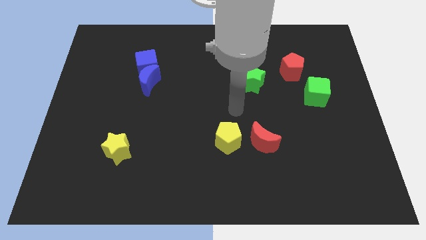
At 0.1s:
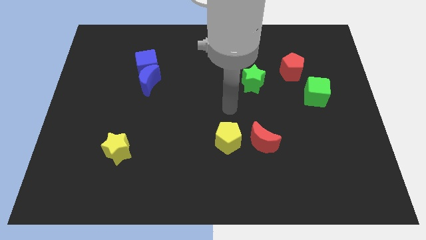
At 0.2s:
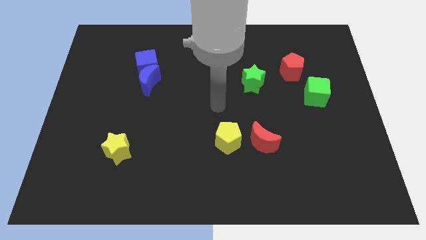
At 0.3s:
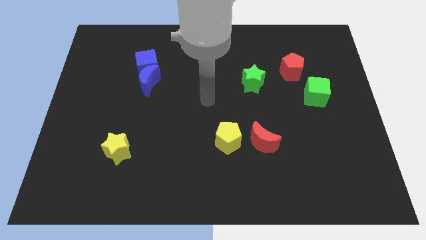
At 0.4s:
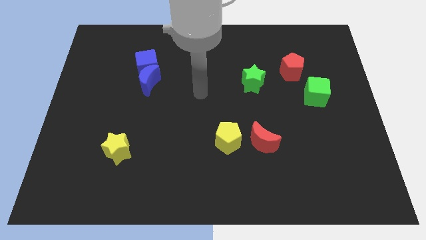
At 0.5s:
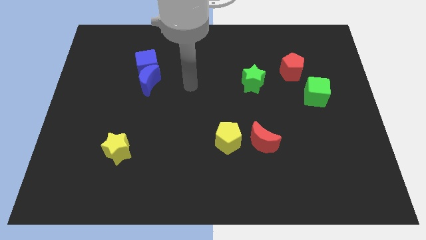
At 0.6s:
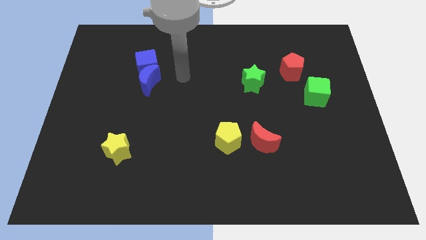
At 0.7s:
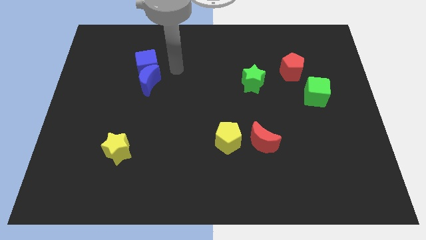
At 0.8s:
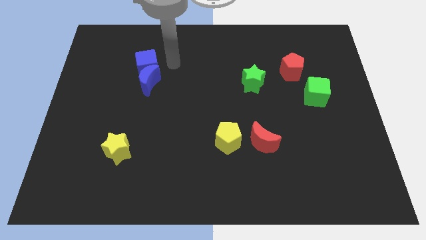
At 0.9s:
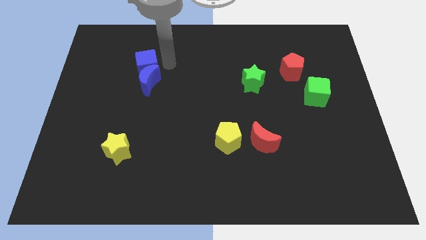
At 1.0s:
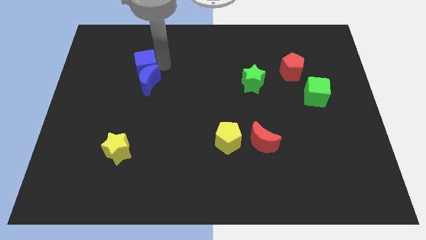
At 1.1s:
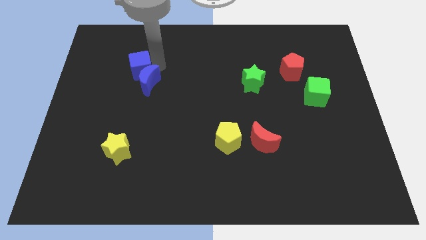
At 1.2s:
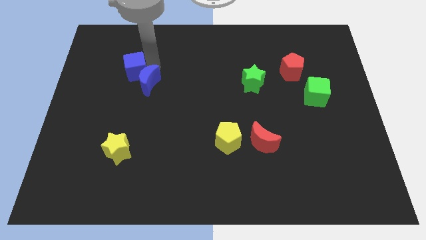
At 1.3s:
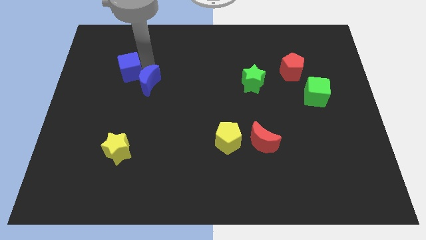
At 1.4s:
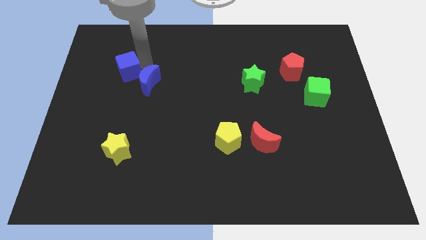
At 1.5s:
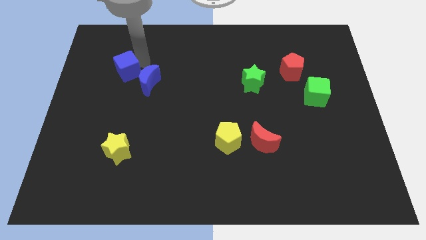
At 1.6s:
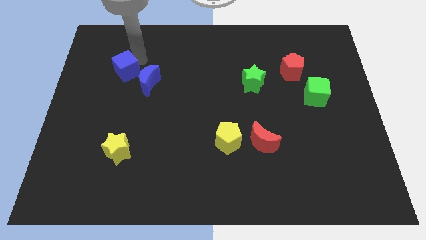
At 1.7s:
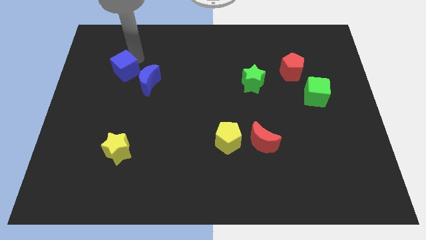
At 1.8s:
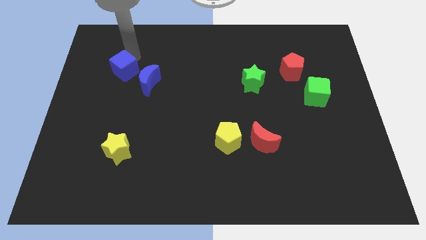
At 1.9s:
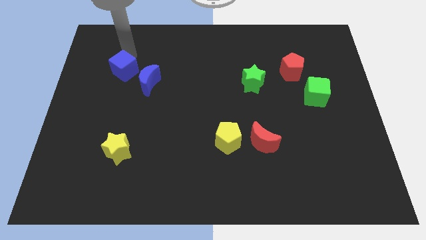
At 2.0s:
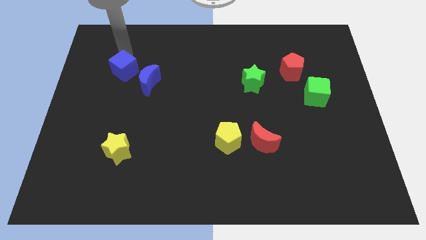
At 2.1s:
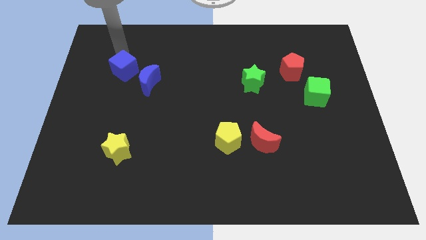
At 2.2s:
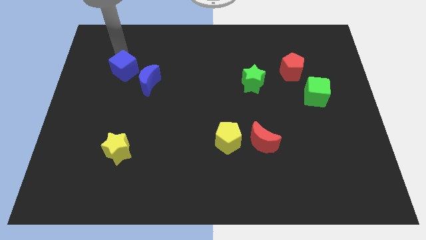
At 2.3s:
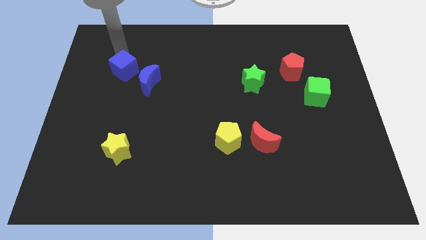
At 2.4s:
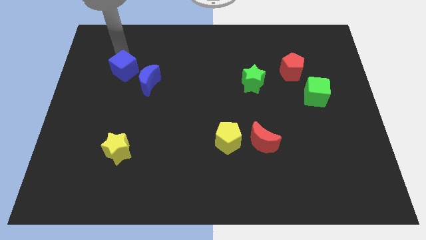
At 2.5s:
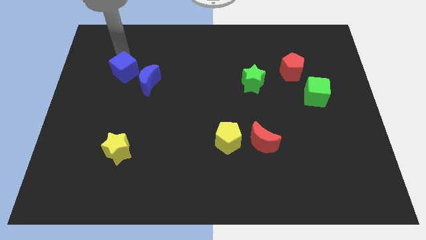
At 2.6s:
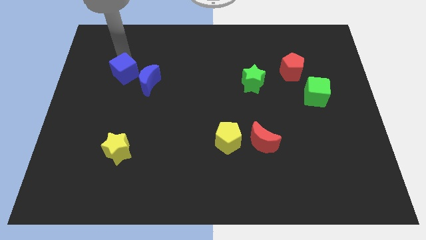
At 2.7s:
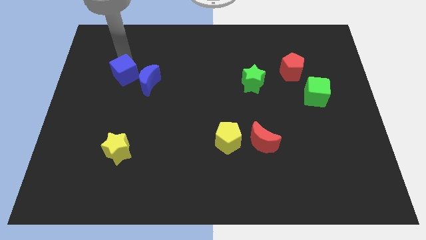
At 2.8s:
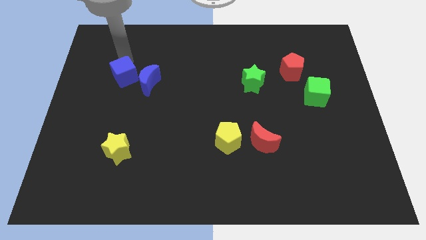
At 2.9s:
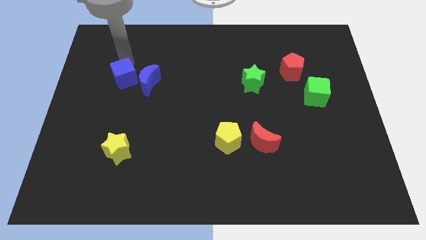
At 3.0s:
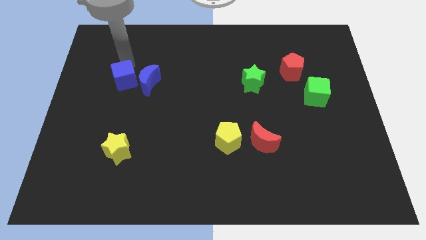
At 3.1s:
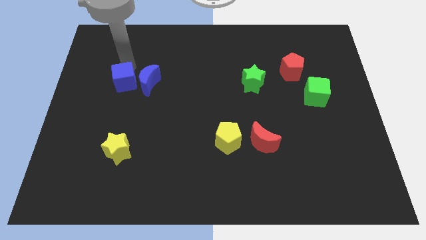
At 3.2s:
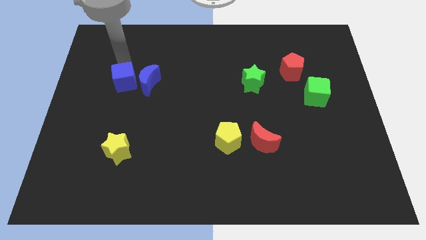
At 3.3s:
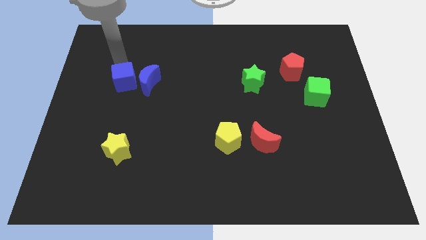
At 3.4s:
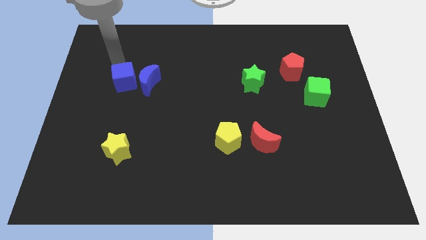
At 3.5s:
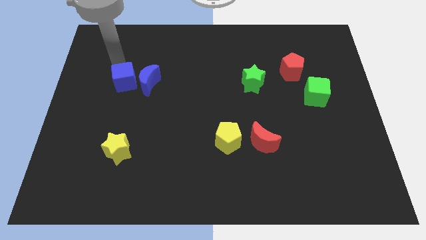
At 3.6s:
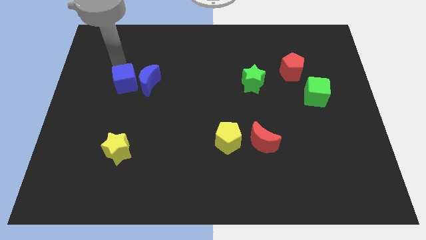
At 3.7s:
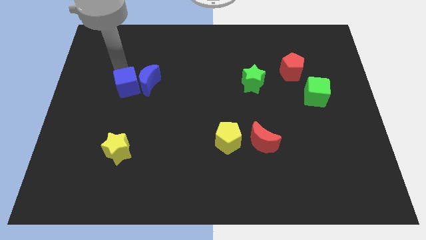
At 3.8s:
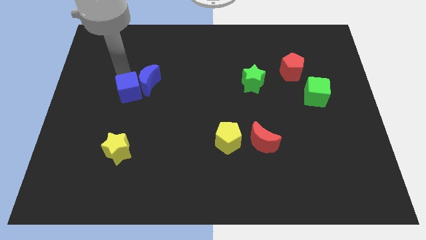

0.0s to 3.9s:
slightly push the blue cube down

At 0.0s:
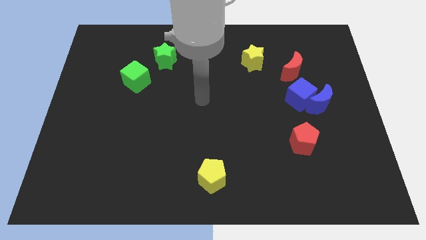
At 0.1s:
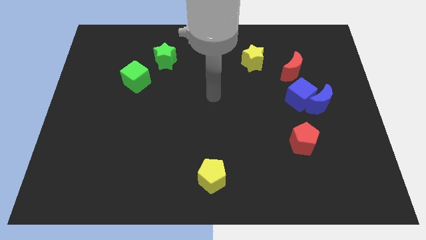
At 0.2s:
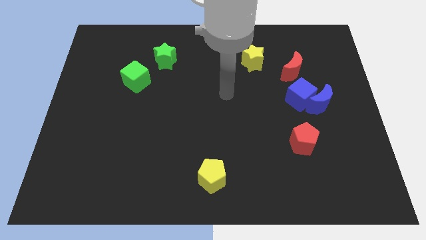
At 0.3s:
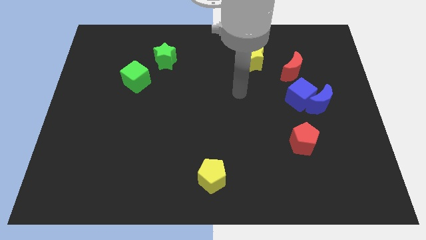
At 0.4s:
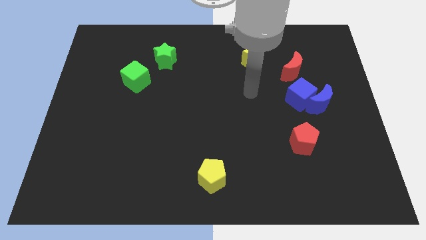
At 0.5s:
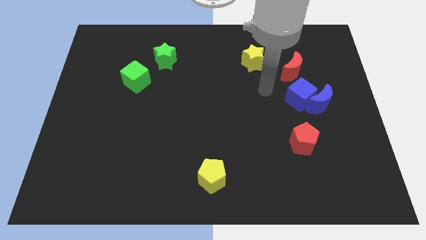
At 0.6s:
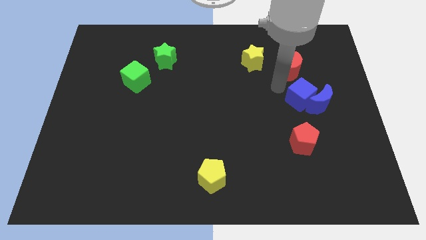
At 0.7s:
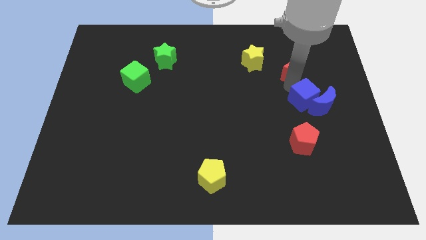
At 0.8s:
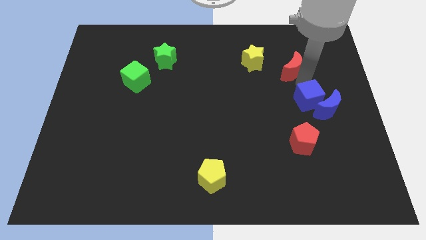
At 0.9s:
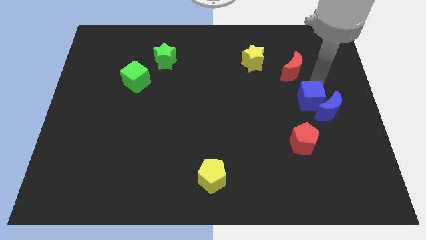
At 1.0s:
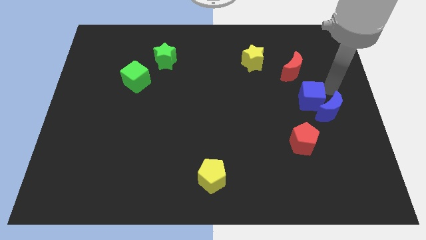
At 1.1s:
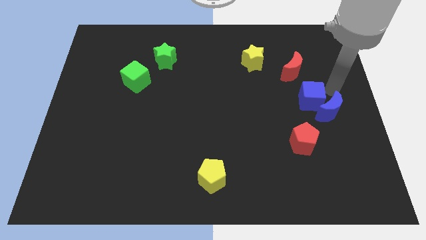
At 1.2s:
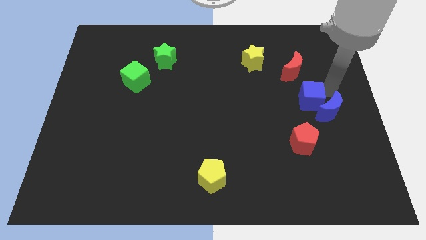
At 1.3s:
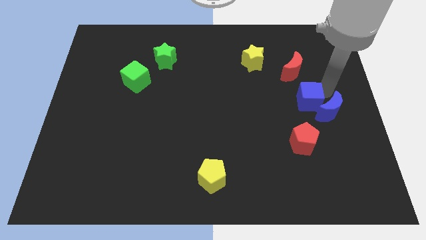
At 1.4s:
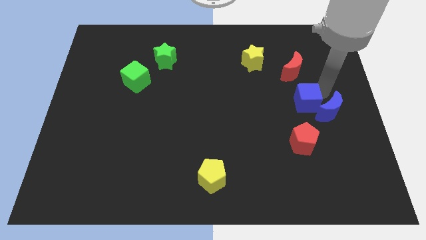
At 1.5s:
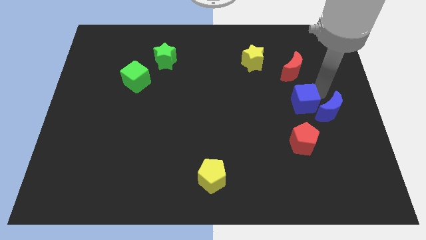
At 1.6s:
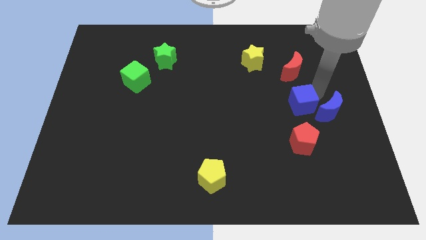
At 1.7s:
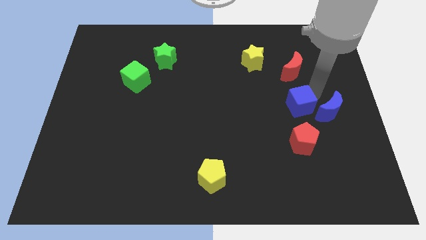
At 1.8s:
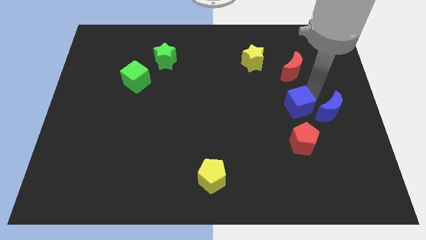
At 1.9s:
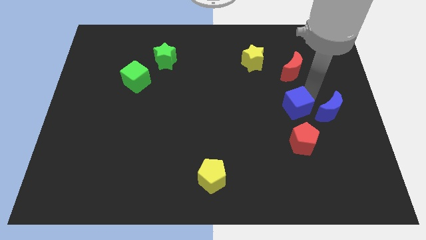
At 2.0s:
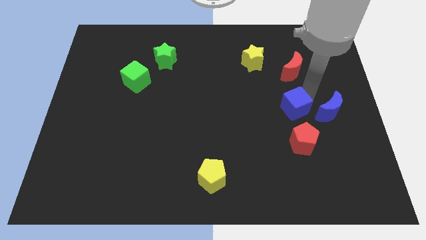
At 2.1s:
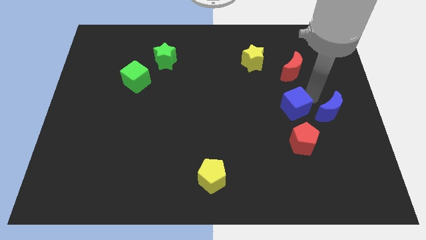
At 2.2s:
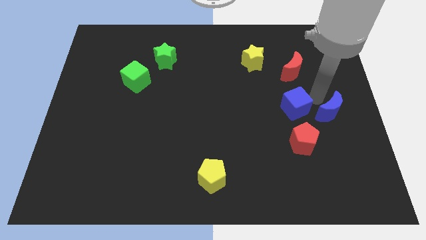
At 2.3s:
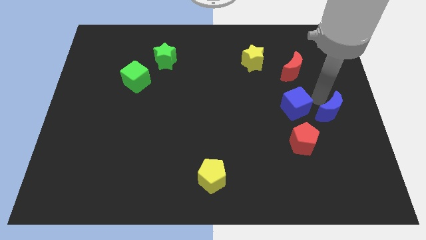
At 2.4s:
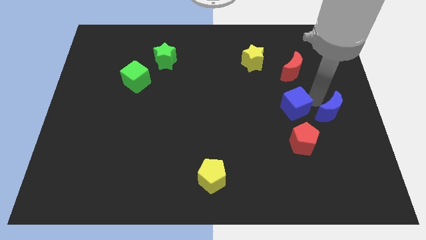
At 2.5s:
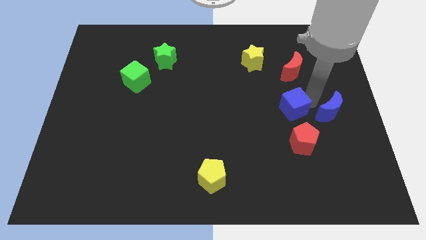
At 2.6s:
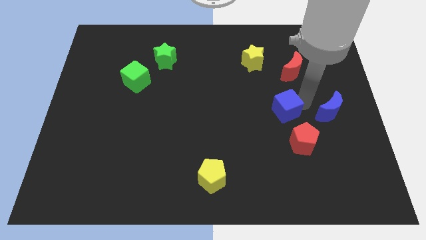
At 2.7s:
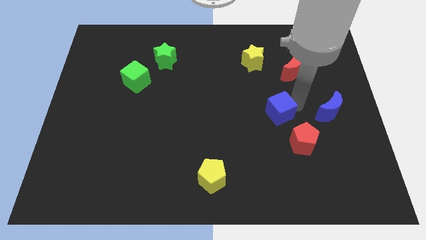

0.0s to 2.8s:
push the blue cube somewhat down and left diagonally

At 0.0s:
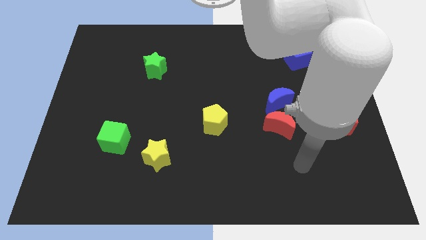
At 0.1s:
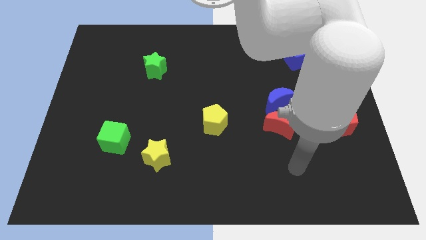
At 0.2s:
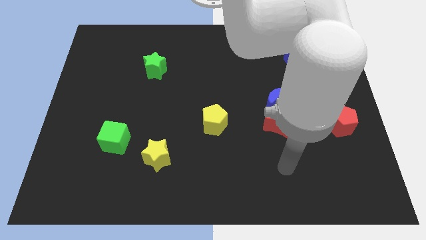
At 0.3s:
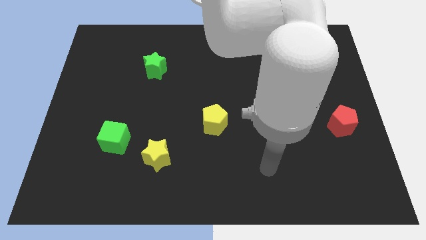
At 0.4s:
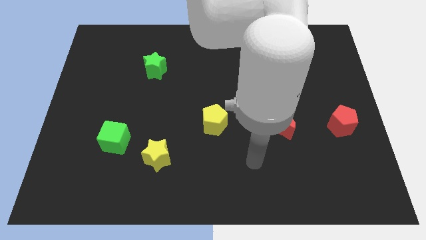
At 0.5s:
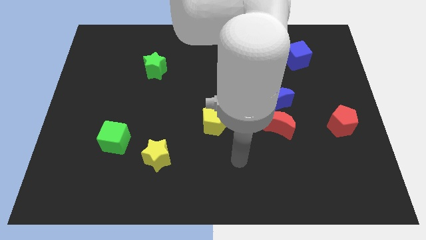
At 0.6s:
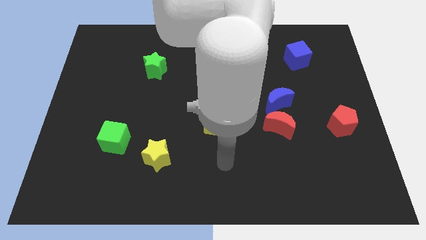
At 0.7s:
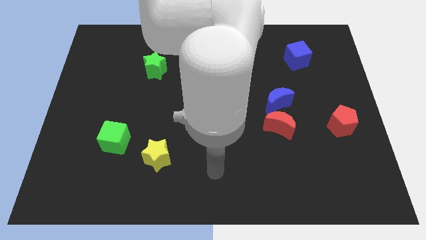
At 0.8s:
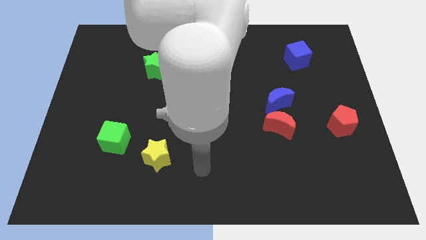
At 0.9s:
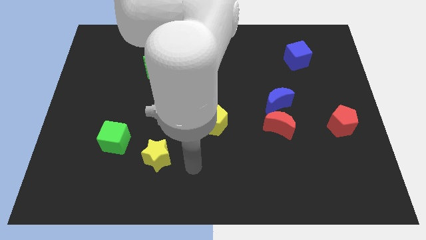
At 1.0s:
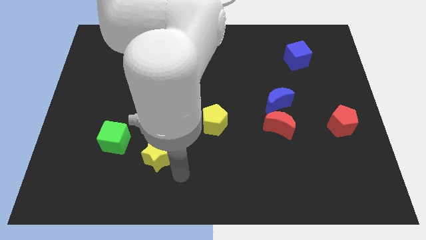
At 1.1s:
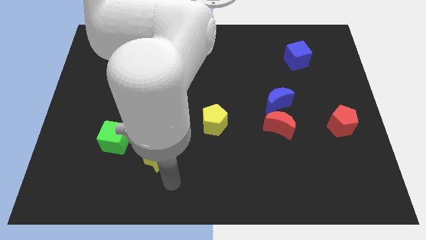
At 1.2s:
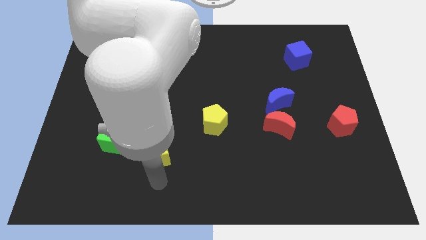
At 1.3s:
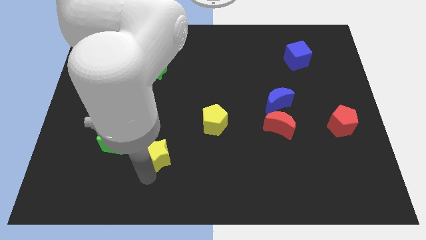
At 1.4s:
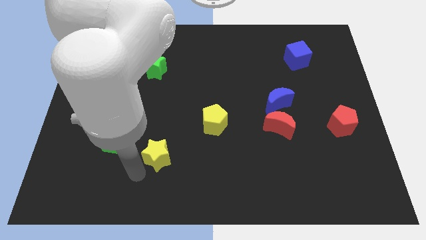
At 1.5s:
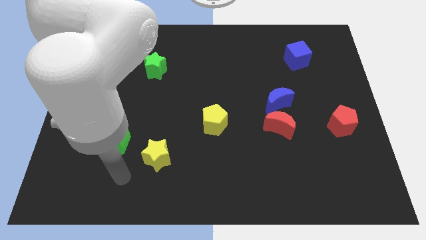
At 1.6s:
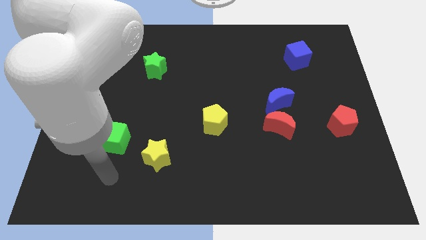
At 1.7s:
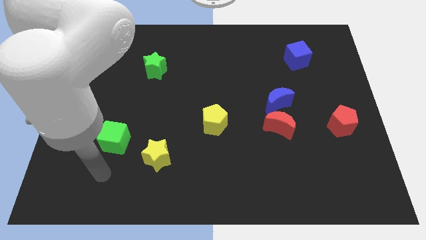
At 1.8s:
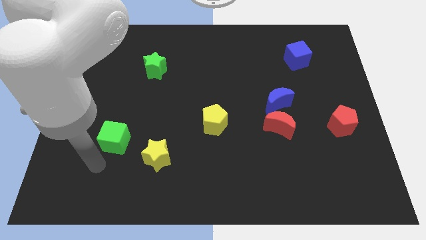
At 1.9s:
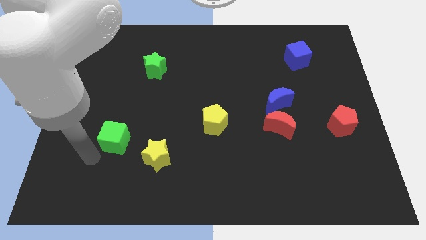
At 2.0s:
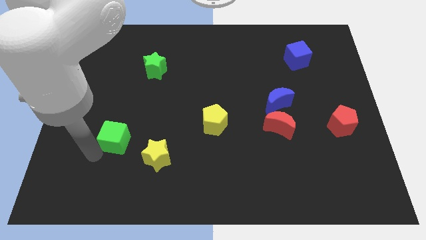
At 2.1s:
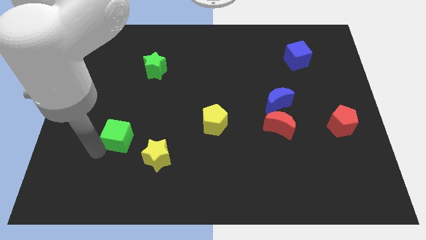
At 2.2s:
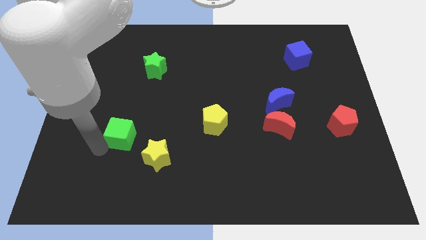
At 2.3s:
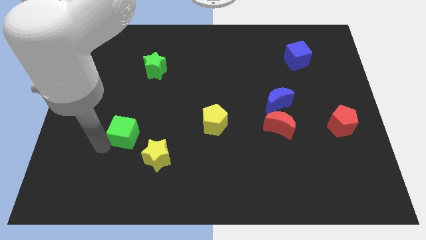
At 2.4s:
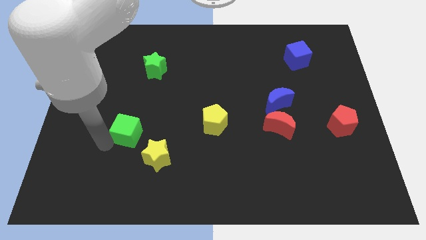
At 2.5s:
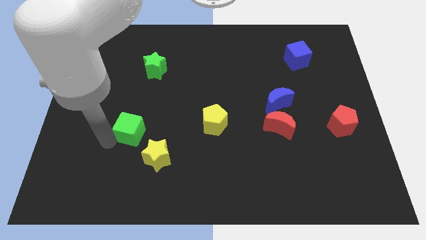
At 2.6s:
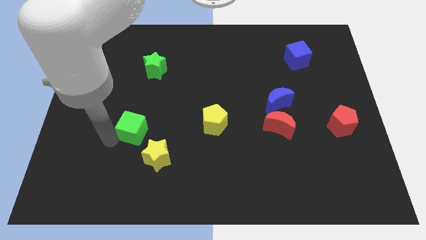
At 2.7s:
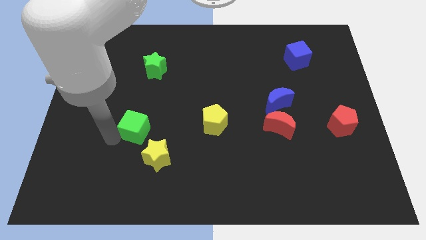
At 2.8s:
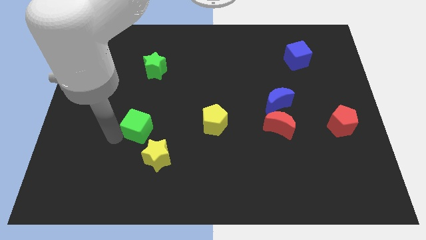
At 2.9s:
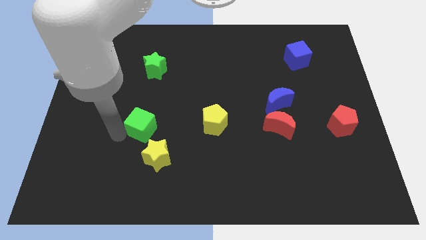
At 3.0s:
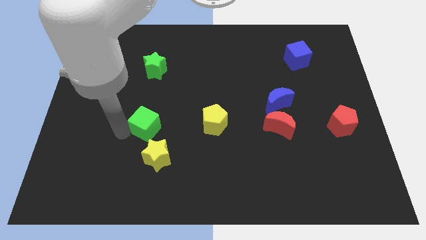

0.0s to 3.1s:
slightly slide the green cube up and then right
